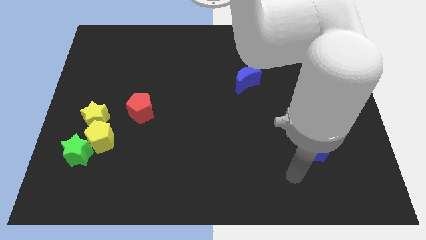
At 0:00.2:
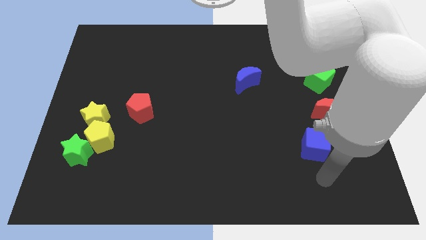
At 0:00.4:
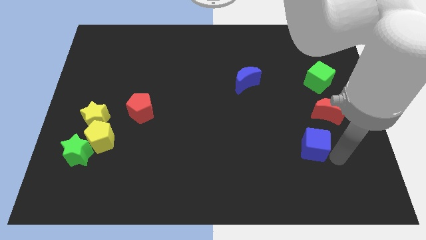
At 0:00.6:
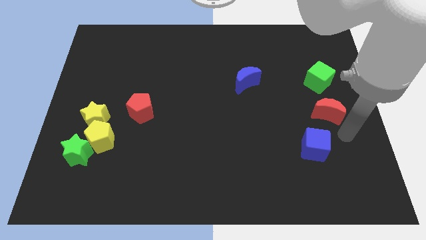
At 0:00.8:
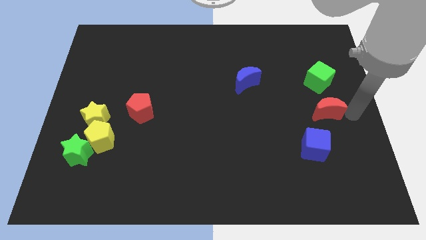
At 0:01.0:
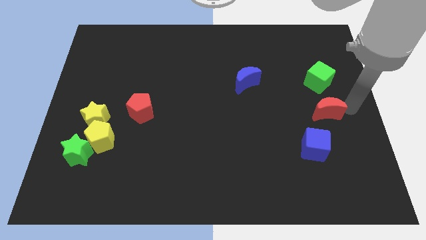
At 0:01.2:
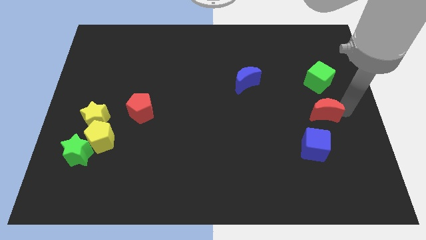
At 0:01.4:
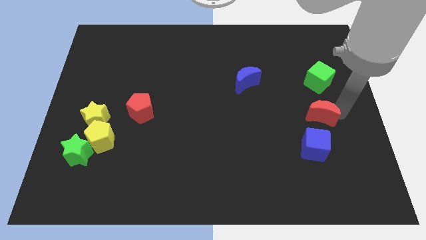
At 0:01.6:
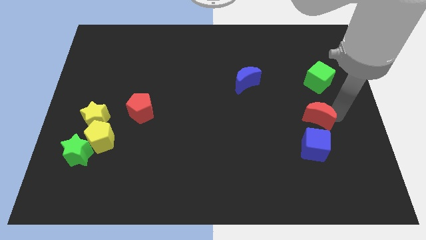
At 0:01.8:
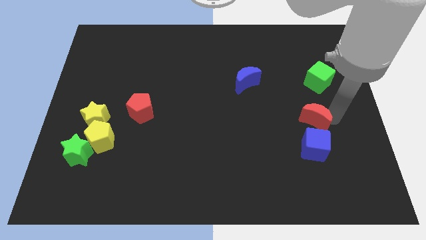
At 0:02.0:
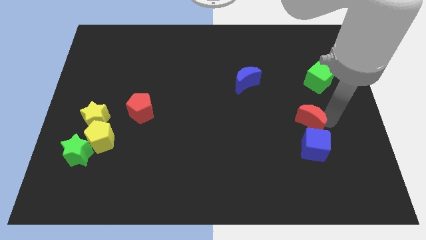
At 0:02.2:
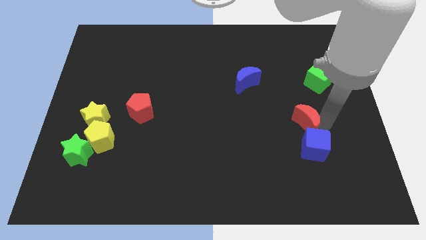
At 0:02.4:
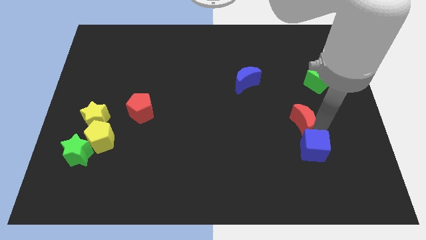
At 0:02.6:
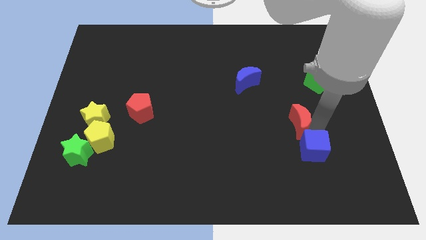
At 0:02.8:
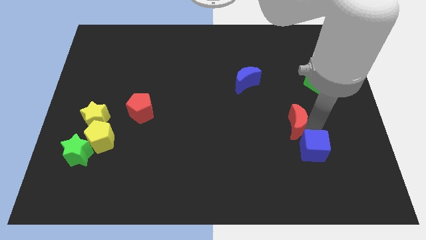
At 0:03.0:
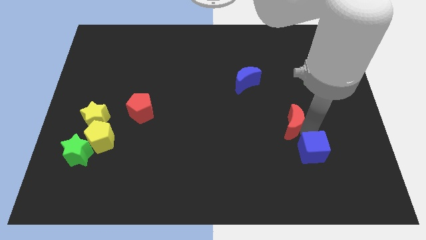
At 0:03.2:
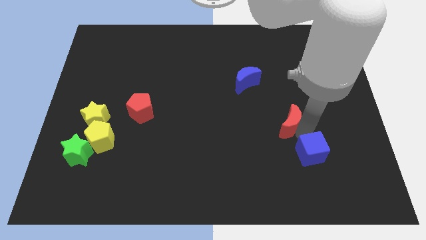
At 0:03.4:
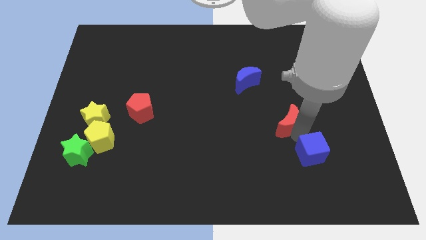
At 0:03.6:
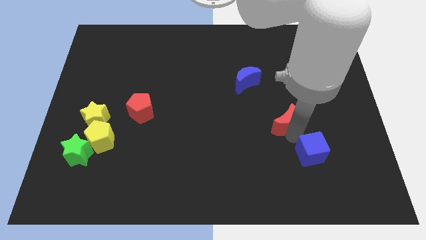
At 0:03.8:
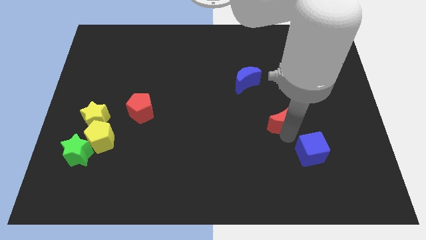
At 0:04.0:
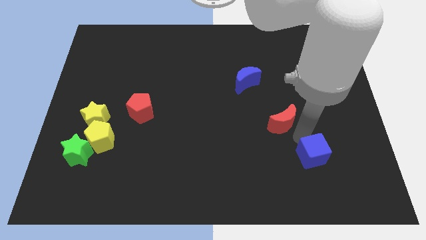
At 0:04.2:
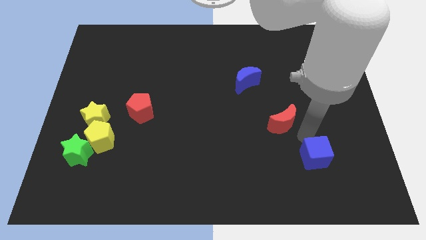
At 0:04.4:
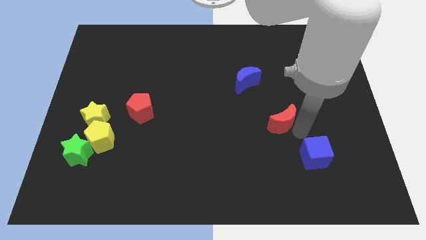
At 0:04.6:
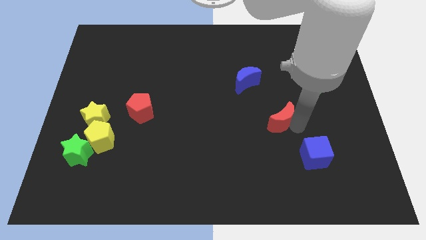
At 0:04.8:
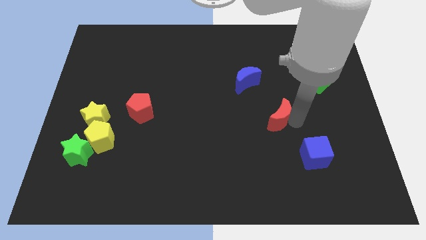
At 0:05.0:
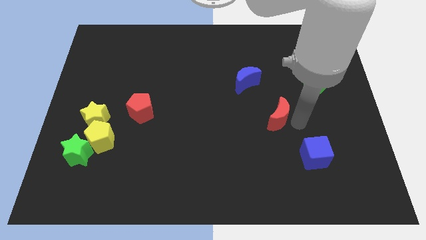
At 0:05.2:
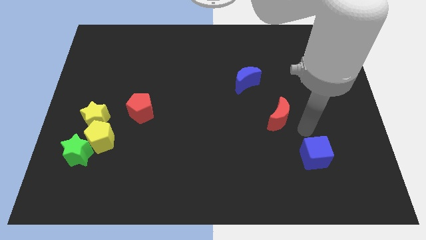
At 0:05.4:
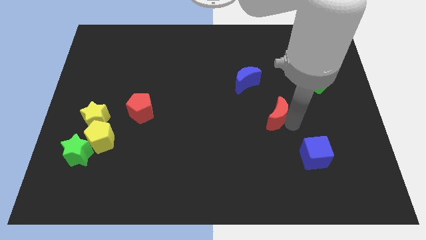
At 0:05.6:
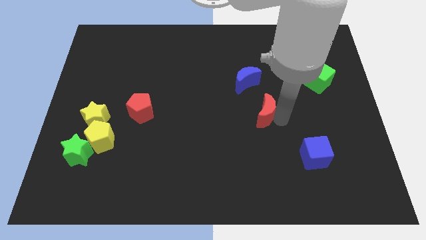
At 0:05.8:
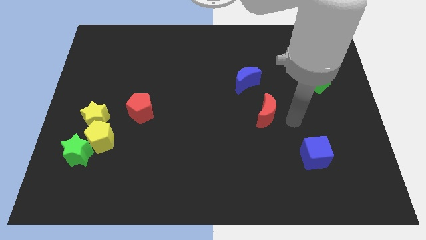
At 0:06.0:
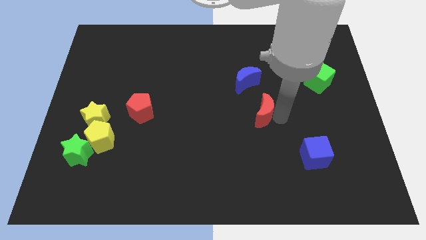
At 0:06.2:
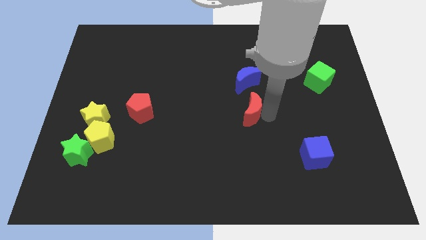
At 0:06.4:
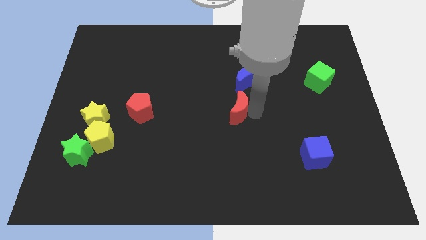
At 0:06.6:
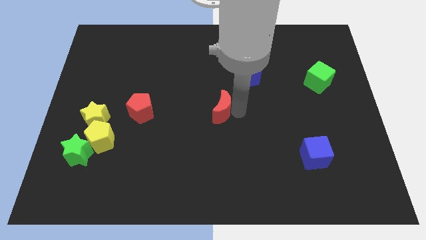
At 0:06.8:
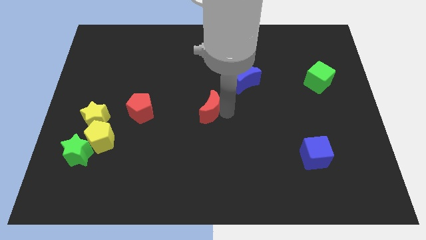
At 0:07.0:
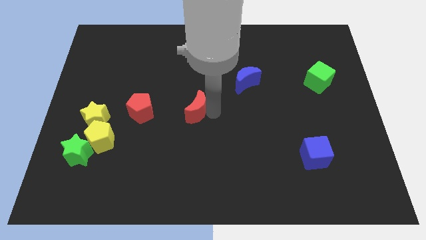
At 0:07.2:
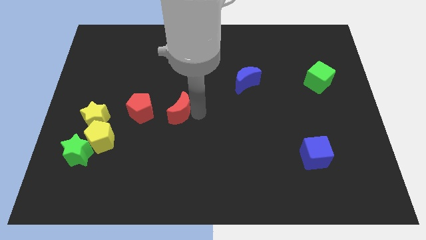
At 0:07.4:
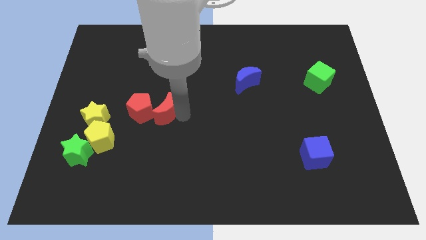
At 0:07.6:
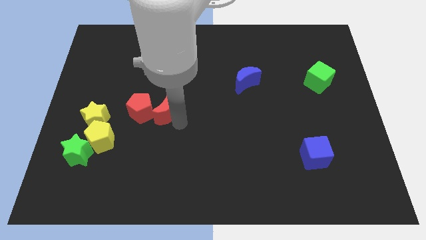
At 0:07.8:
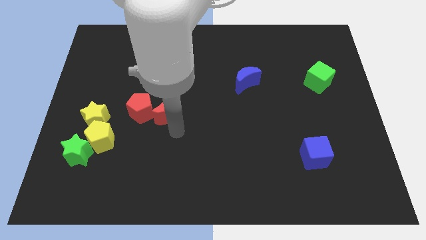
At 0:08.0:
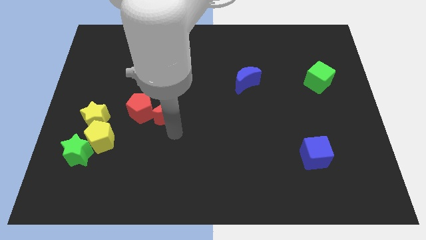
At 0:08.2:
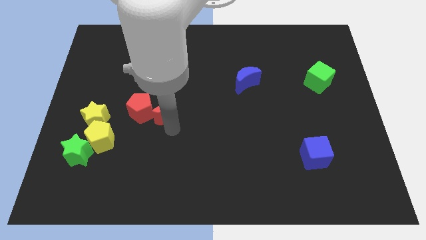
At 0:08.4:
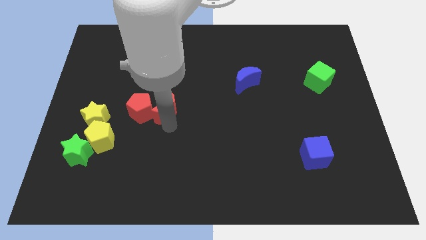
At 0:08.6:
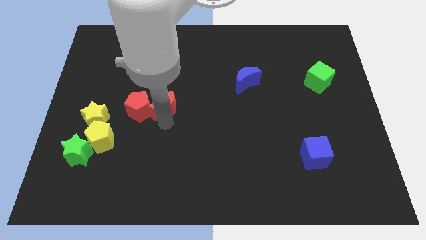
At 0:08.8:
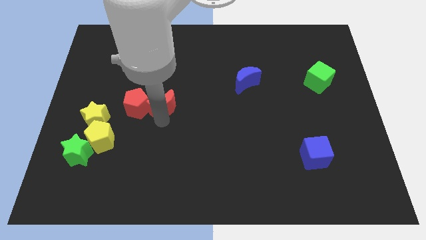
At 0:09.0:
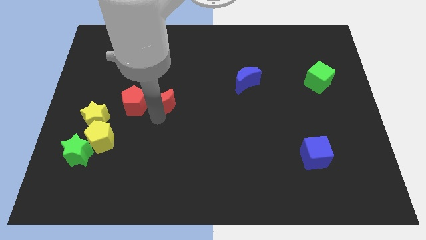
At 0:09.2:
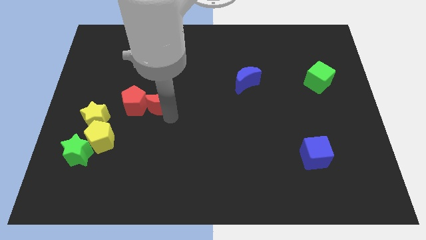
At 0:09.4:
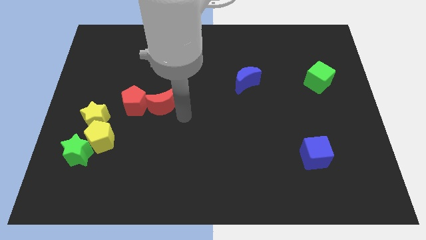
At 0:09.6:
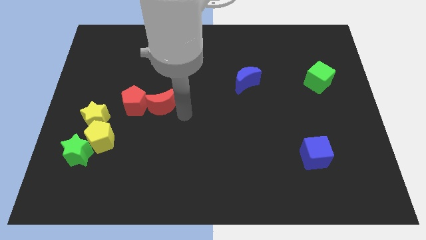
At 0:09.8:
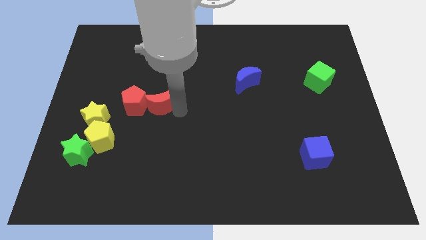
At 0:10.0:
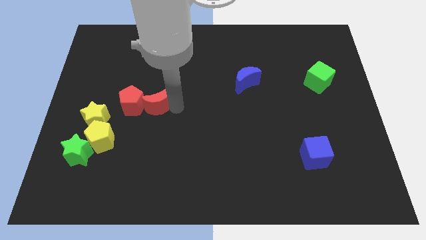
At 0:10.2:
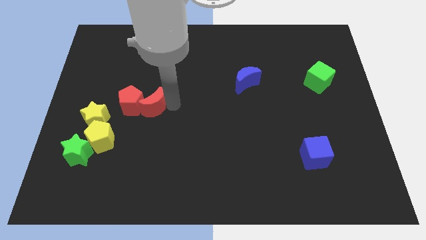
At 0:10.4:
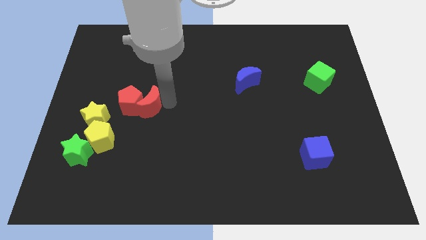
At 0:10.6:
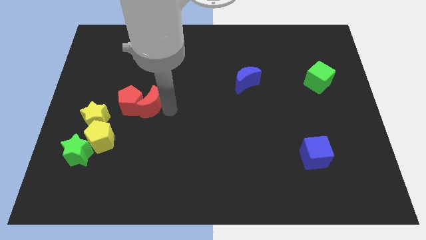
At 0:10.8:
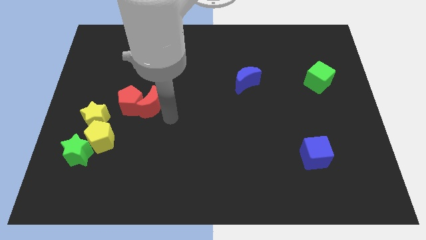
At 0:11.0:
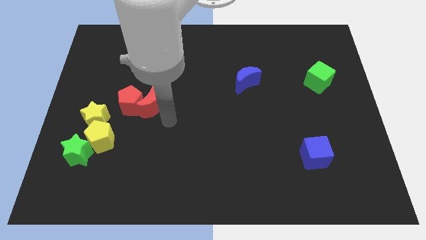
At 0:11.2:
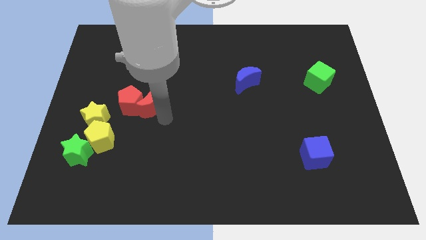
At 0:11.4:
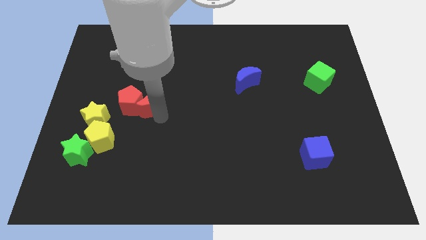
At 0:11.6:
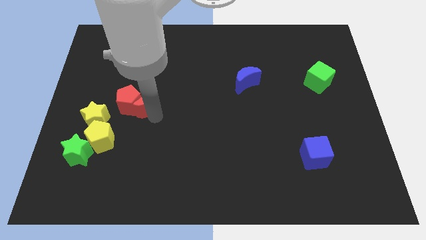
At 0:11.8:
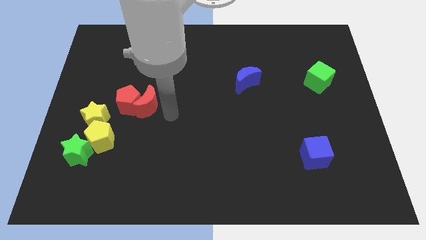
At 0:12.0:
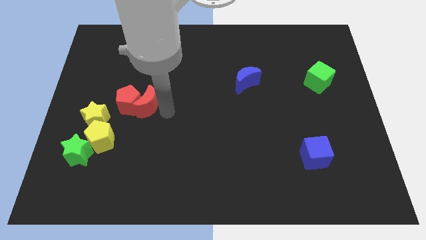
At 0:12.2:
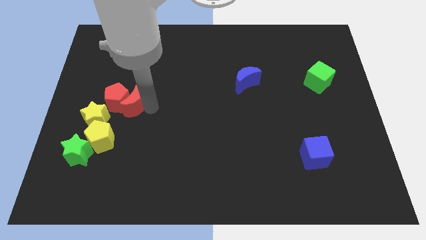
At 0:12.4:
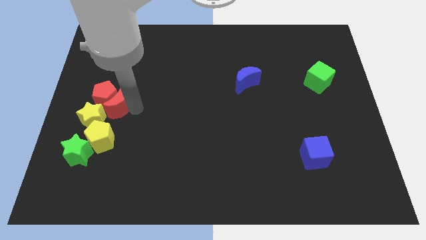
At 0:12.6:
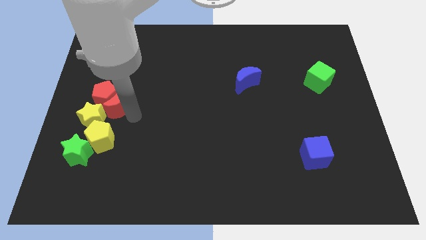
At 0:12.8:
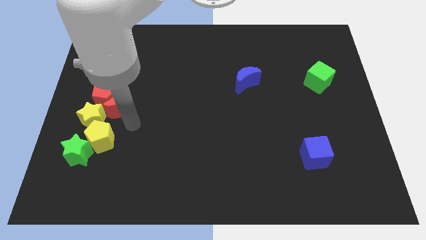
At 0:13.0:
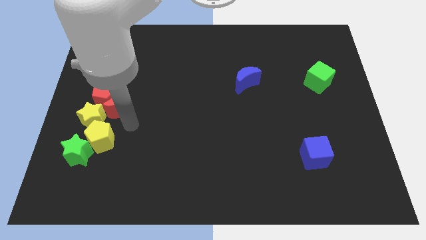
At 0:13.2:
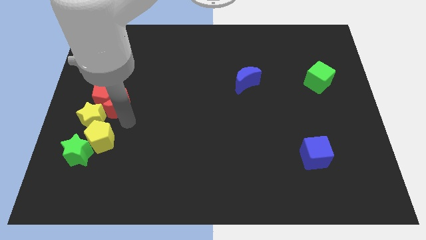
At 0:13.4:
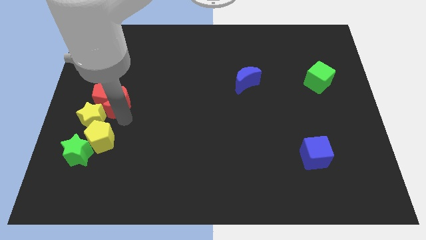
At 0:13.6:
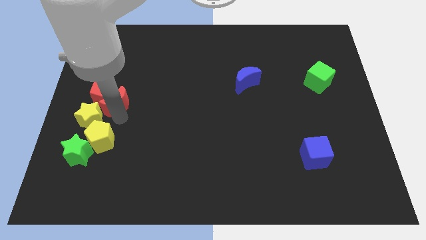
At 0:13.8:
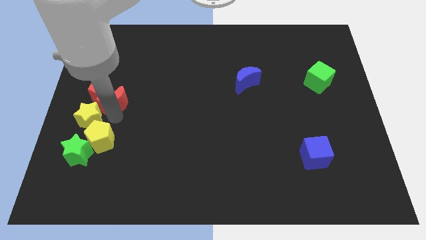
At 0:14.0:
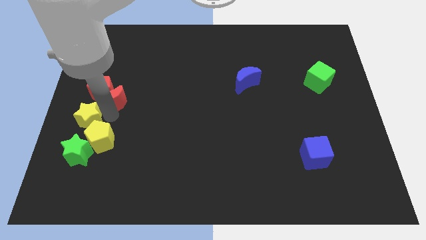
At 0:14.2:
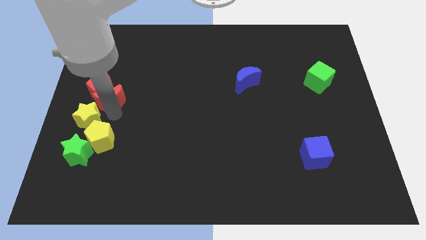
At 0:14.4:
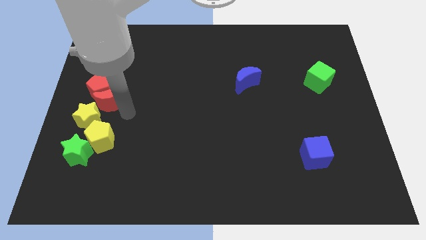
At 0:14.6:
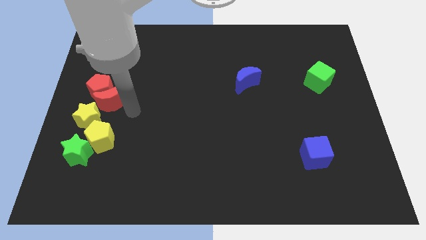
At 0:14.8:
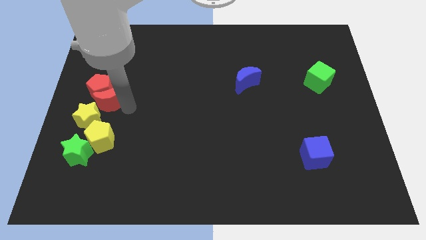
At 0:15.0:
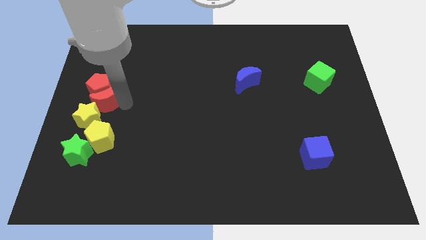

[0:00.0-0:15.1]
move the red moon to the left side
